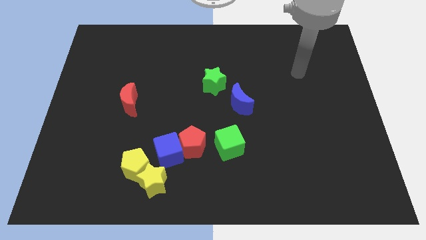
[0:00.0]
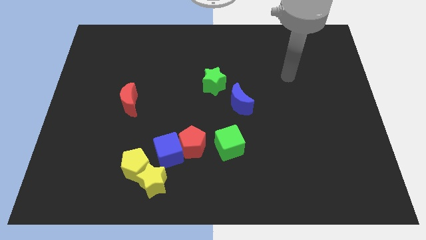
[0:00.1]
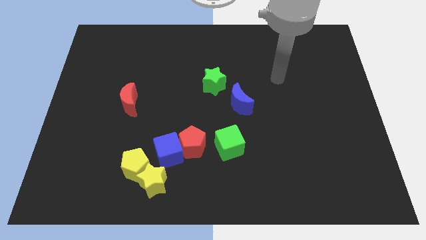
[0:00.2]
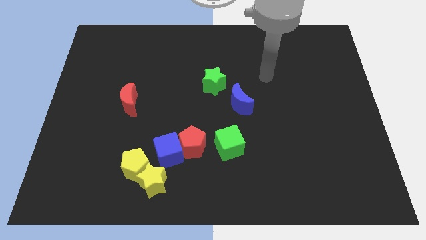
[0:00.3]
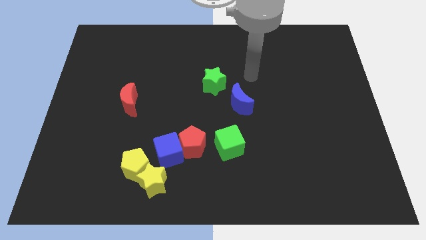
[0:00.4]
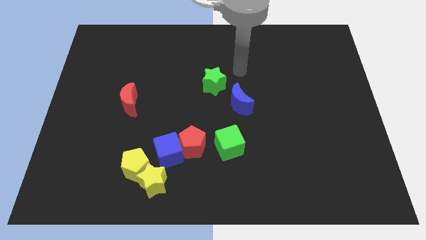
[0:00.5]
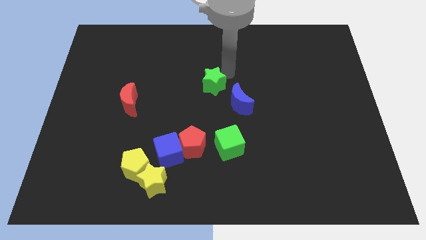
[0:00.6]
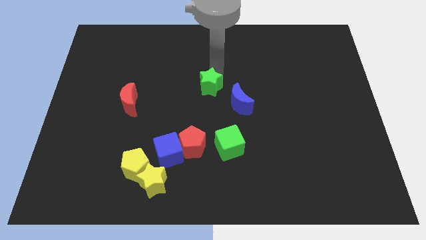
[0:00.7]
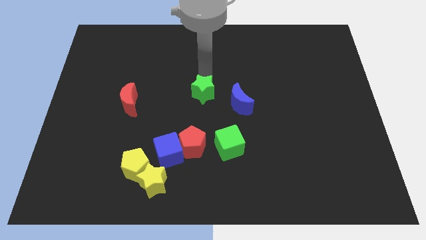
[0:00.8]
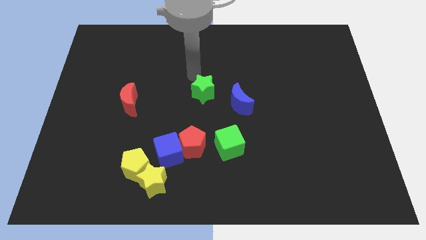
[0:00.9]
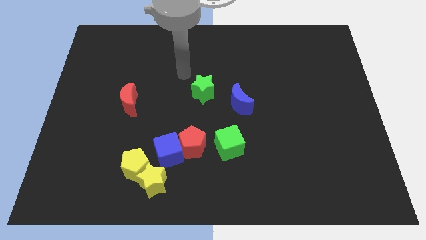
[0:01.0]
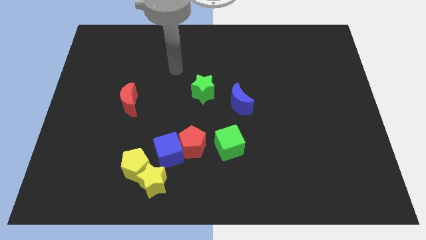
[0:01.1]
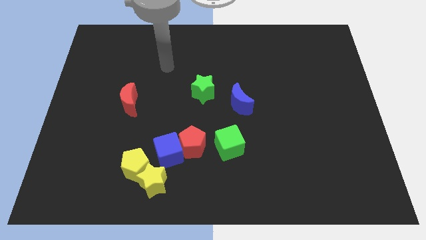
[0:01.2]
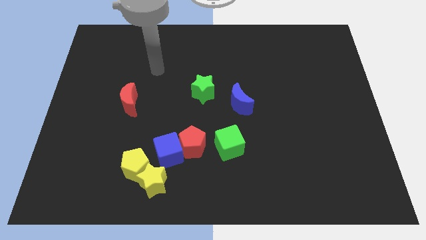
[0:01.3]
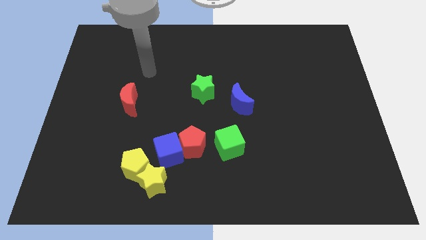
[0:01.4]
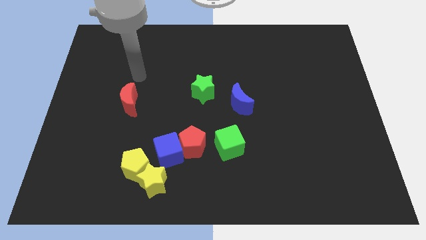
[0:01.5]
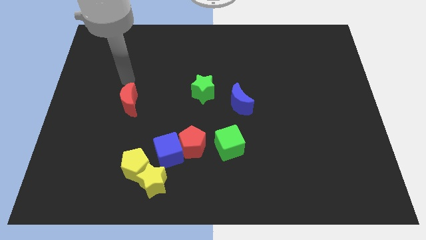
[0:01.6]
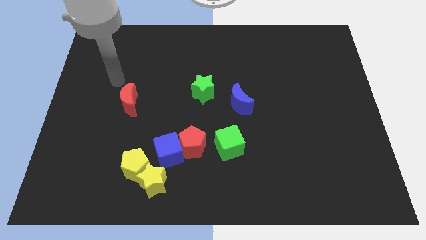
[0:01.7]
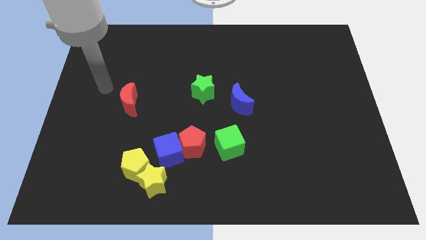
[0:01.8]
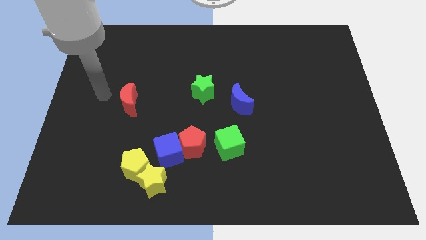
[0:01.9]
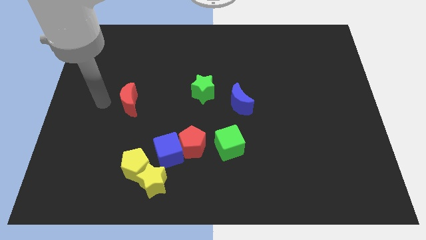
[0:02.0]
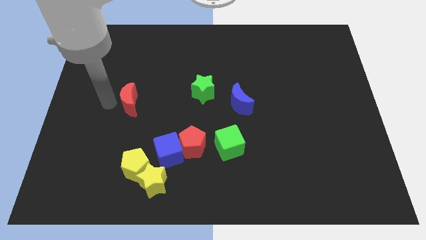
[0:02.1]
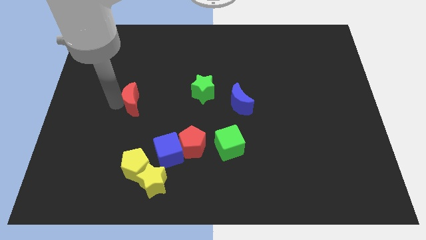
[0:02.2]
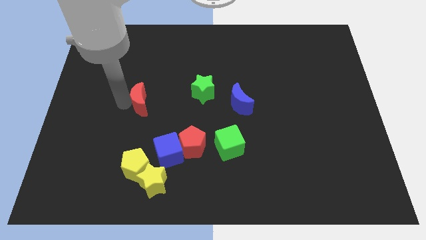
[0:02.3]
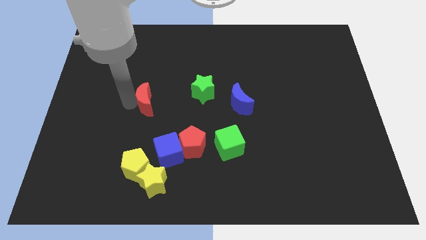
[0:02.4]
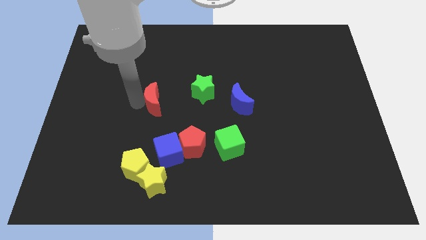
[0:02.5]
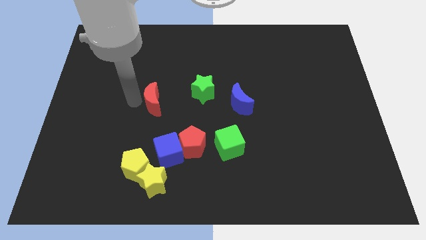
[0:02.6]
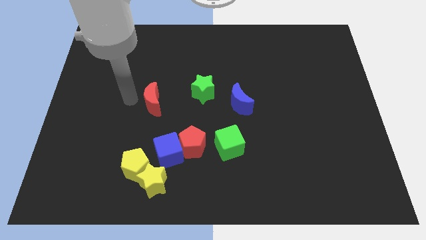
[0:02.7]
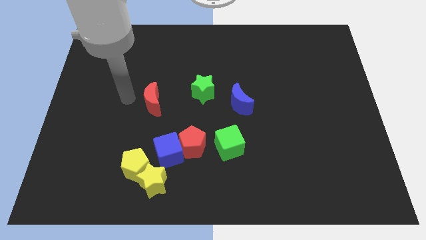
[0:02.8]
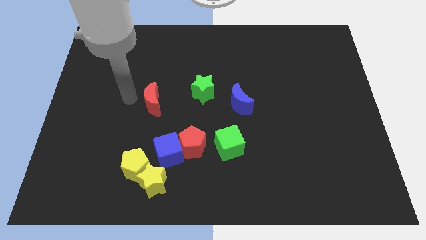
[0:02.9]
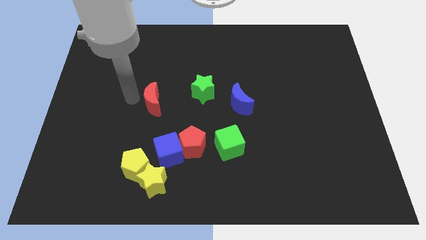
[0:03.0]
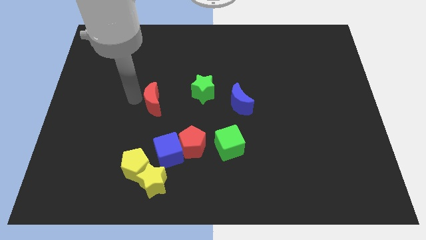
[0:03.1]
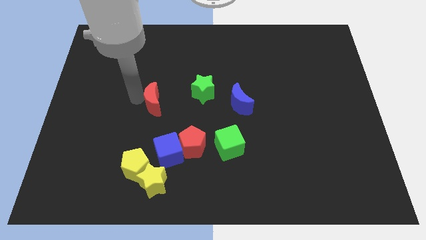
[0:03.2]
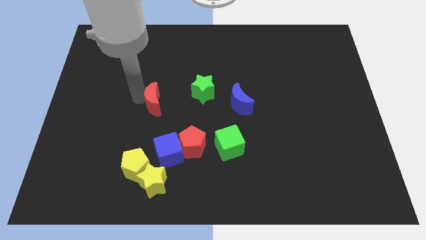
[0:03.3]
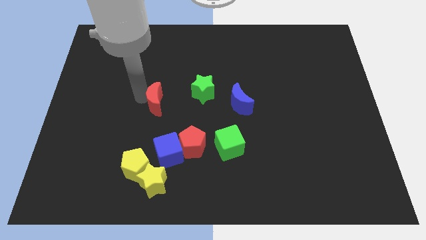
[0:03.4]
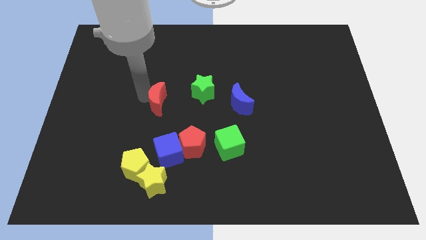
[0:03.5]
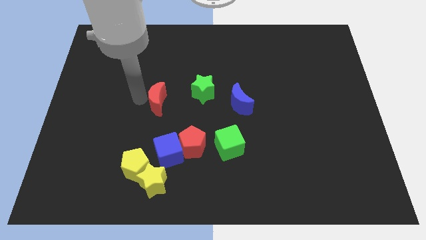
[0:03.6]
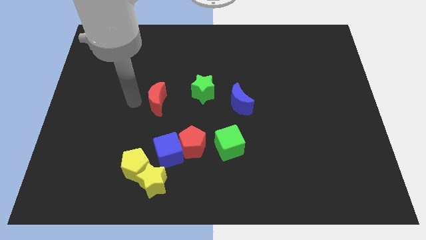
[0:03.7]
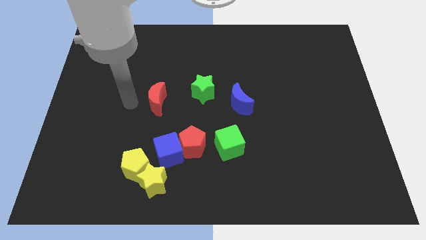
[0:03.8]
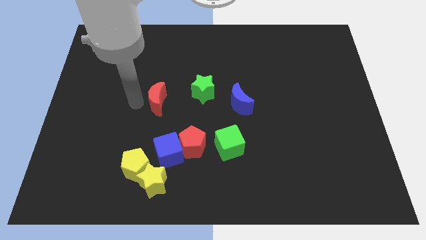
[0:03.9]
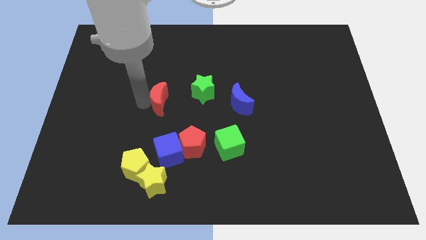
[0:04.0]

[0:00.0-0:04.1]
push the red moon slightly right

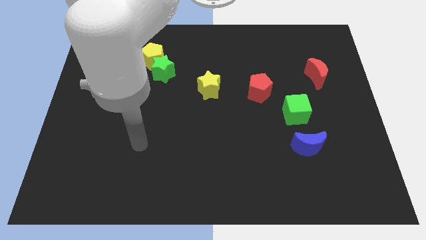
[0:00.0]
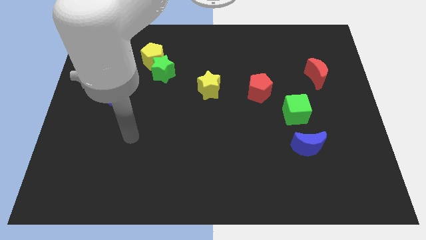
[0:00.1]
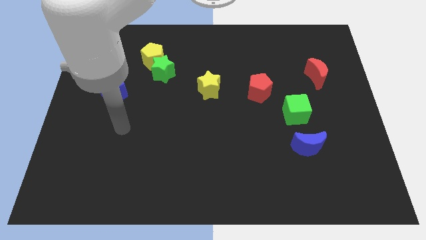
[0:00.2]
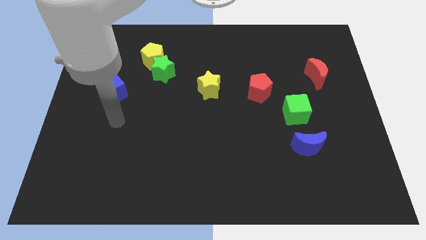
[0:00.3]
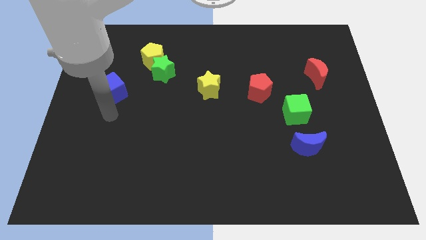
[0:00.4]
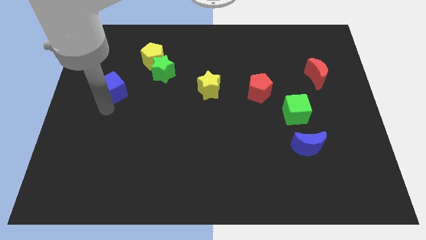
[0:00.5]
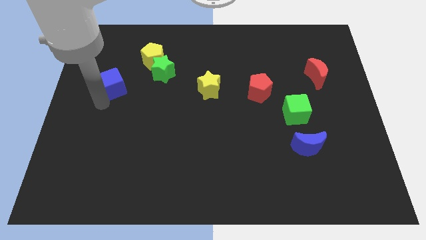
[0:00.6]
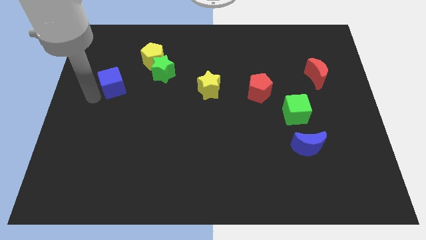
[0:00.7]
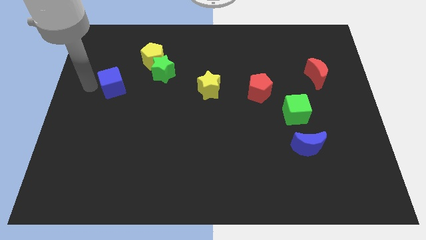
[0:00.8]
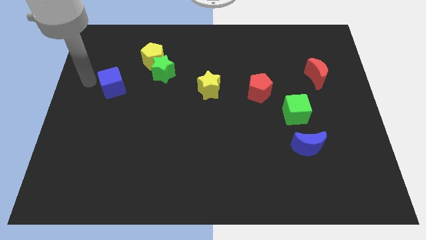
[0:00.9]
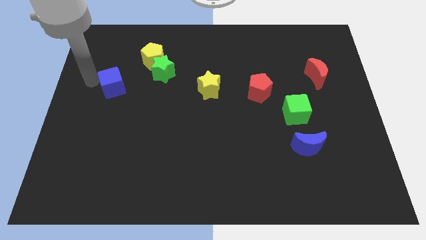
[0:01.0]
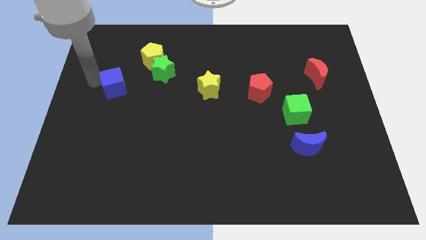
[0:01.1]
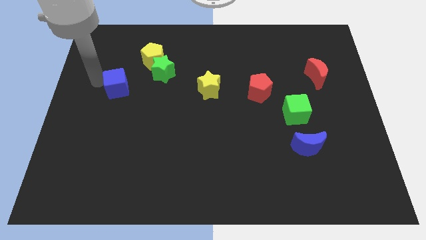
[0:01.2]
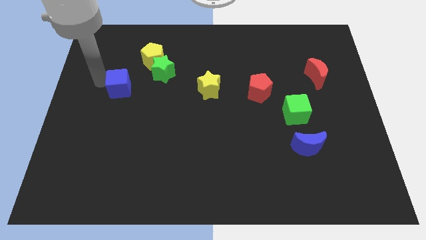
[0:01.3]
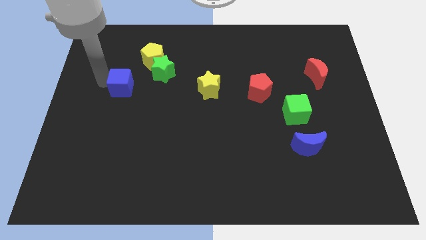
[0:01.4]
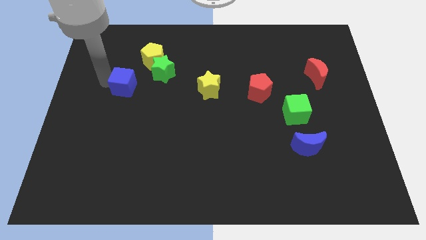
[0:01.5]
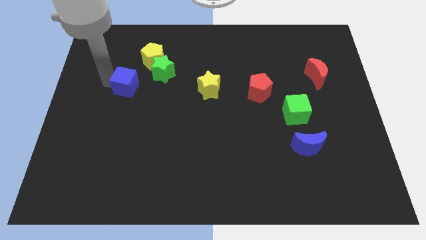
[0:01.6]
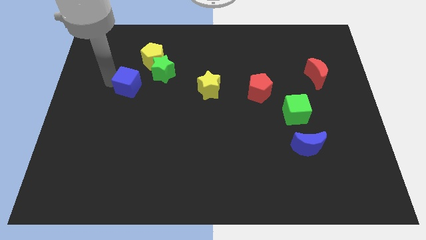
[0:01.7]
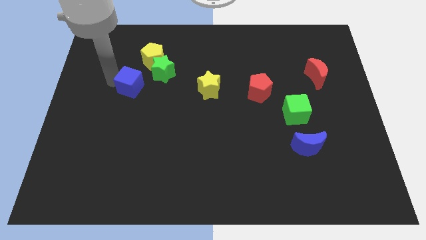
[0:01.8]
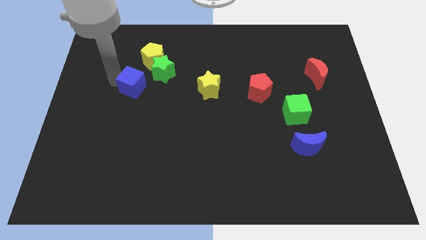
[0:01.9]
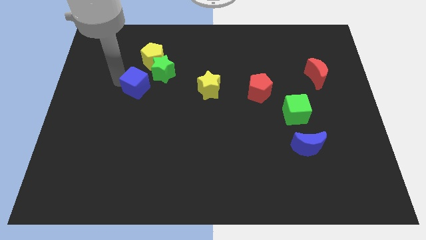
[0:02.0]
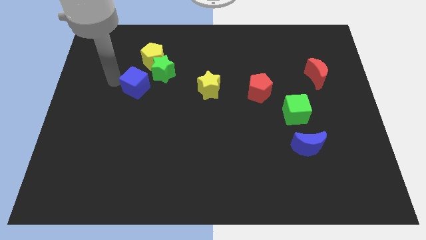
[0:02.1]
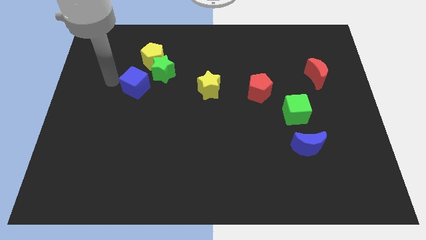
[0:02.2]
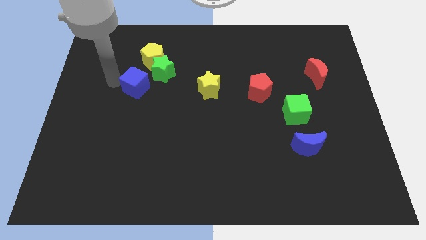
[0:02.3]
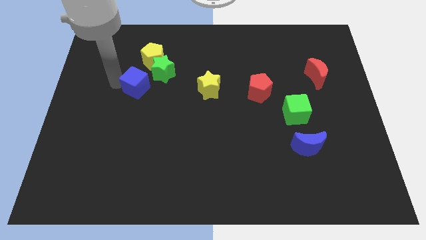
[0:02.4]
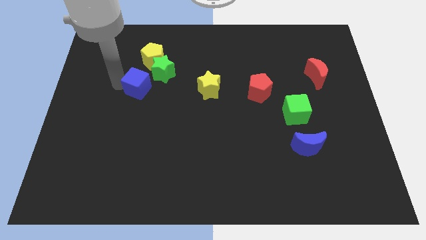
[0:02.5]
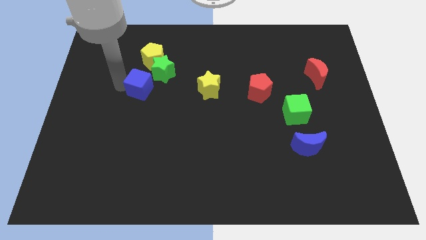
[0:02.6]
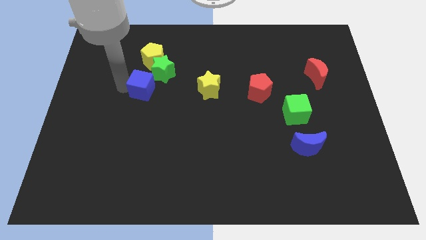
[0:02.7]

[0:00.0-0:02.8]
slightly move the blue cube right

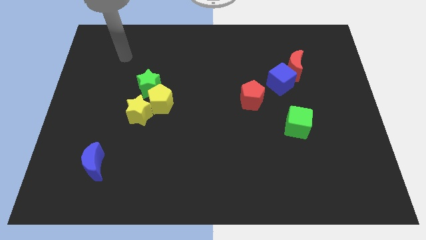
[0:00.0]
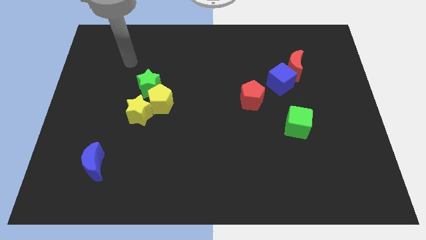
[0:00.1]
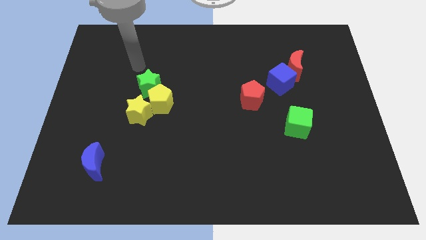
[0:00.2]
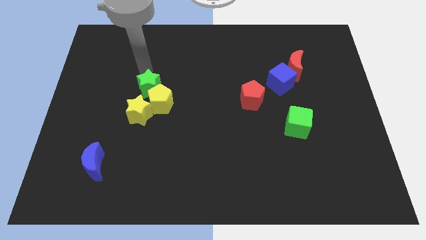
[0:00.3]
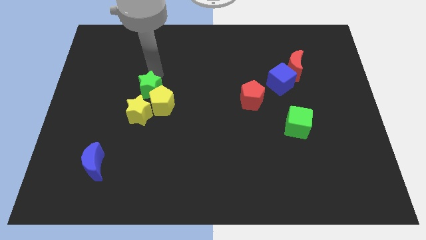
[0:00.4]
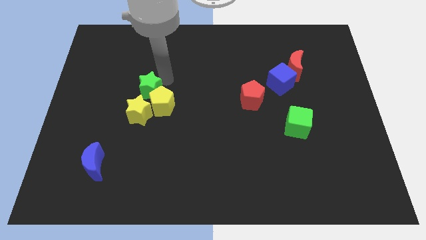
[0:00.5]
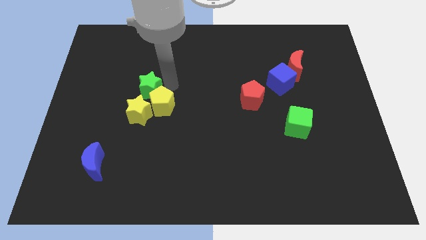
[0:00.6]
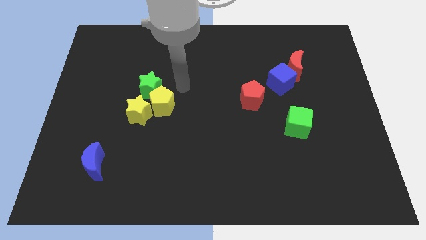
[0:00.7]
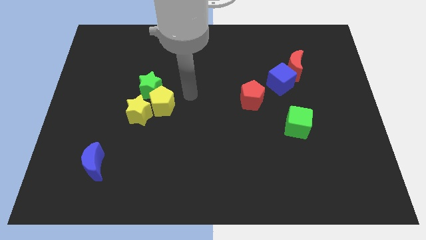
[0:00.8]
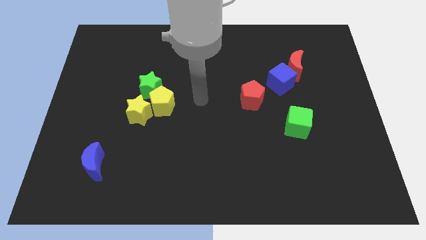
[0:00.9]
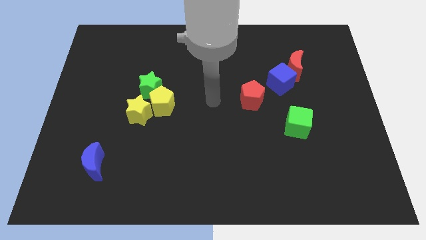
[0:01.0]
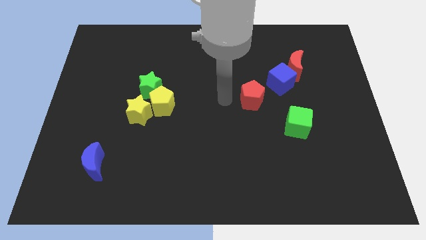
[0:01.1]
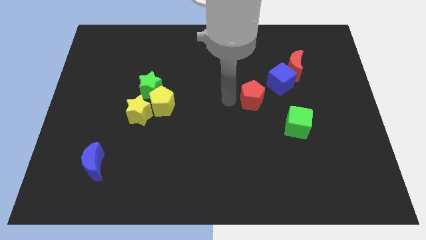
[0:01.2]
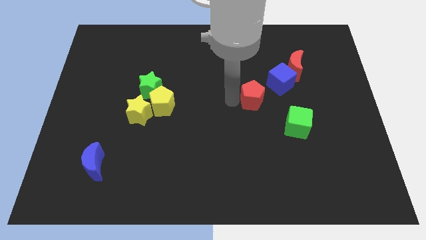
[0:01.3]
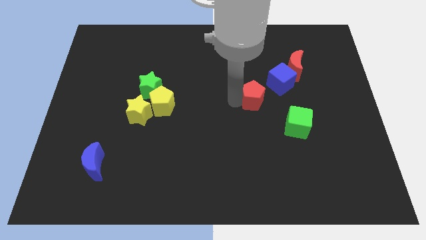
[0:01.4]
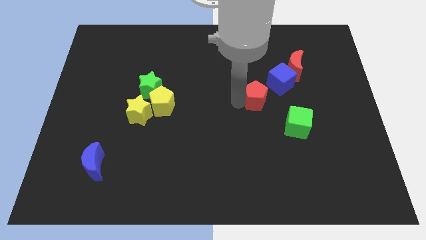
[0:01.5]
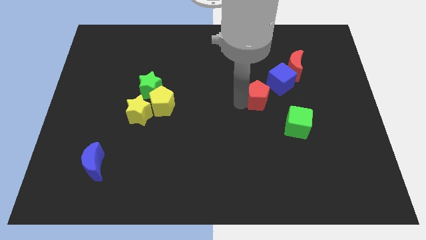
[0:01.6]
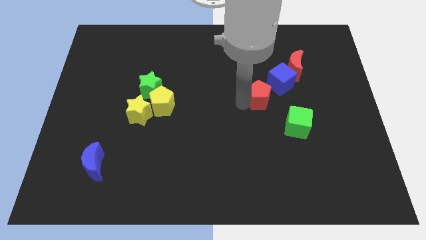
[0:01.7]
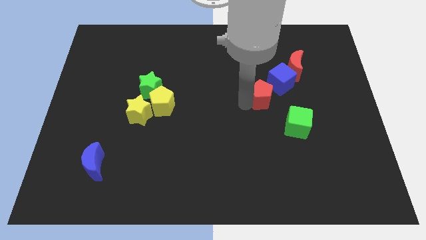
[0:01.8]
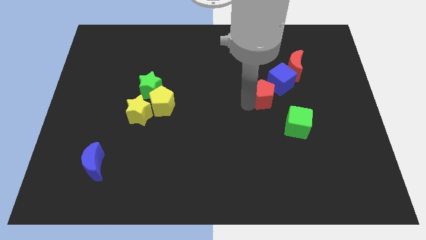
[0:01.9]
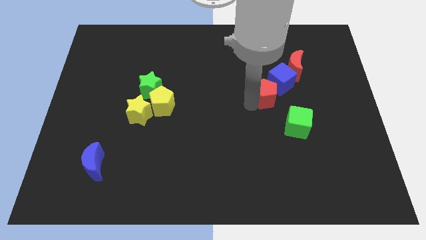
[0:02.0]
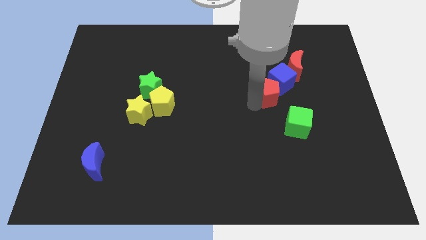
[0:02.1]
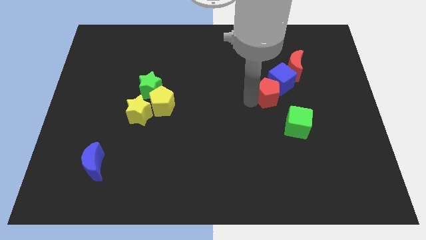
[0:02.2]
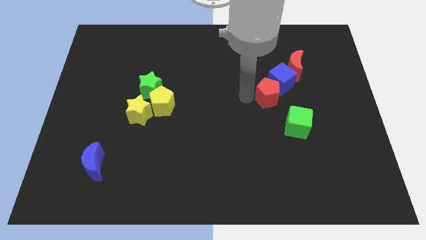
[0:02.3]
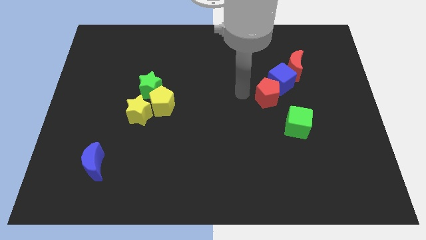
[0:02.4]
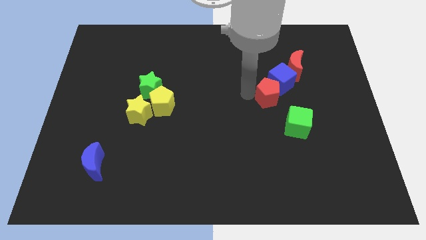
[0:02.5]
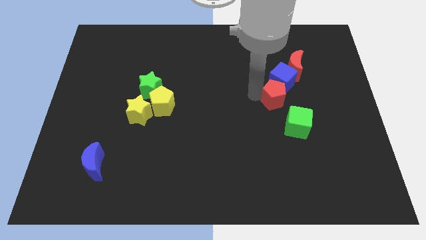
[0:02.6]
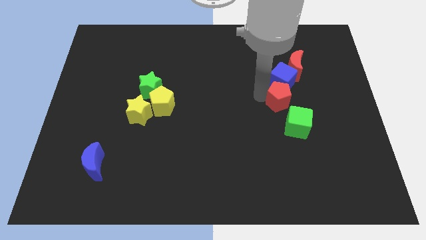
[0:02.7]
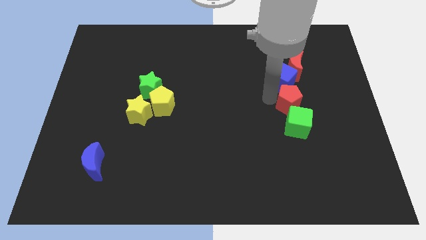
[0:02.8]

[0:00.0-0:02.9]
slightly slide the red pentagon to the right
